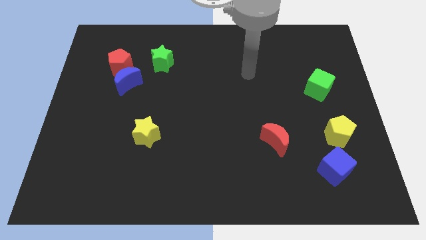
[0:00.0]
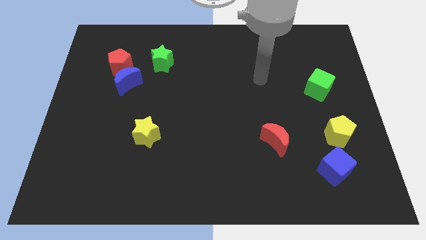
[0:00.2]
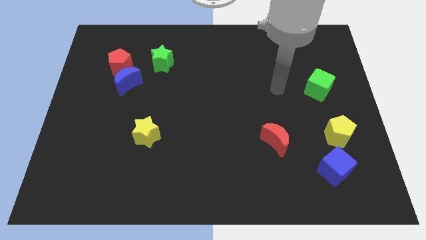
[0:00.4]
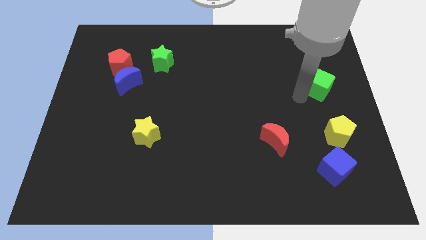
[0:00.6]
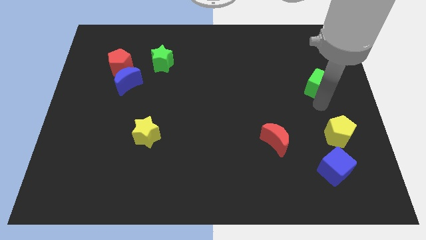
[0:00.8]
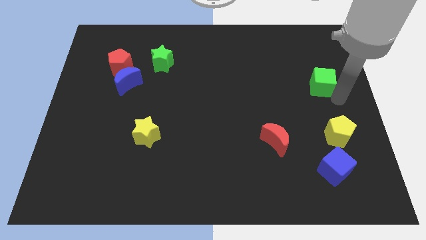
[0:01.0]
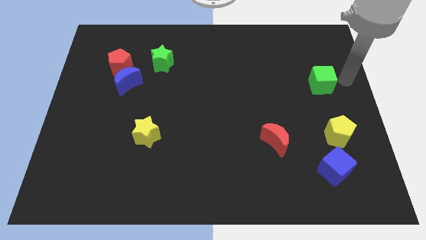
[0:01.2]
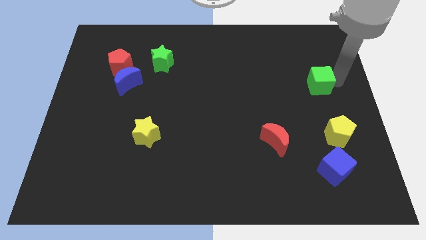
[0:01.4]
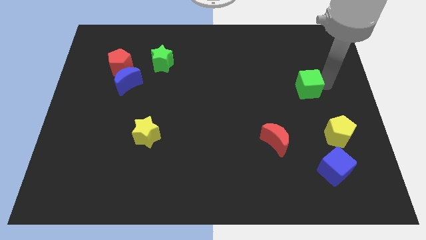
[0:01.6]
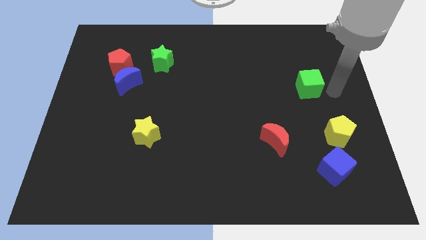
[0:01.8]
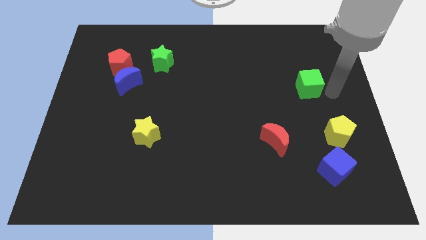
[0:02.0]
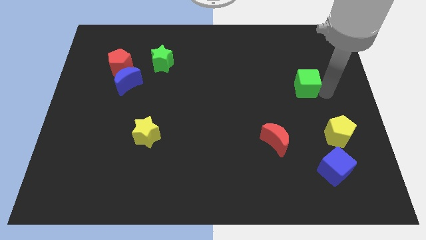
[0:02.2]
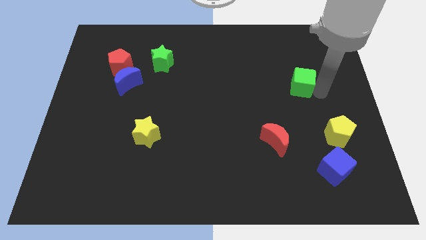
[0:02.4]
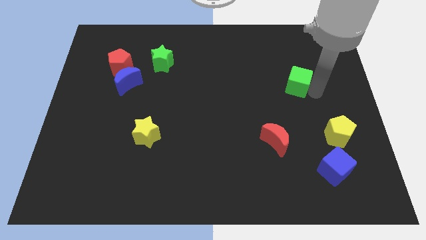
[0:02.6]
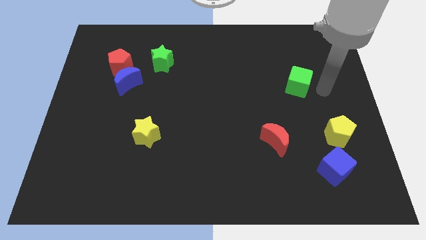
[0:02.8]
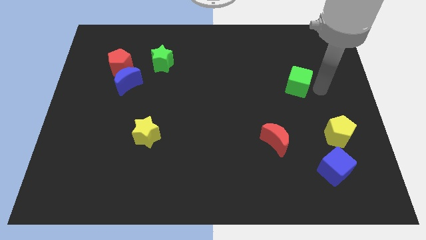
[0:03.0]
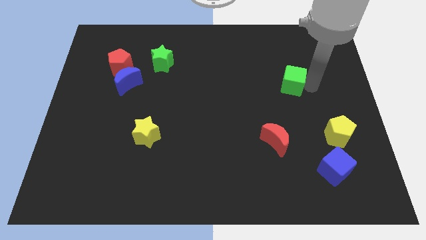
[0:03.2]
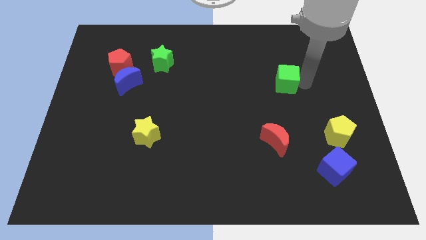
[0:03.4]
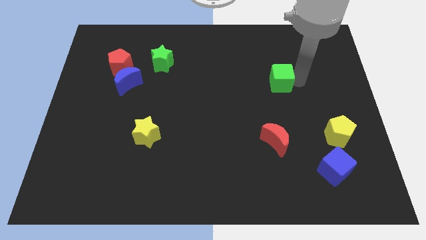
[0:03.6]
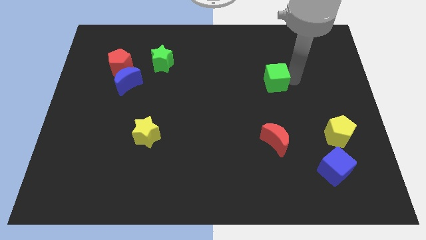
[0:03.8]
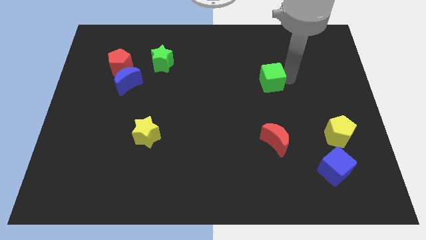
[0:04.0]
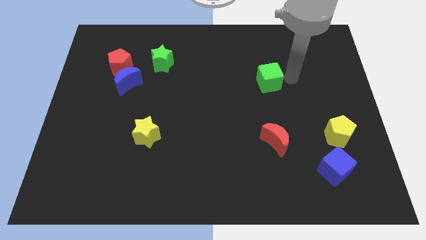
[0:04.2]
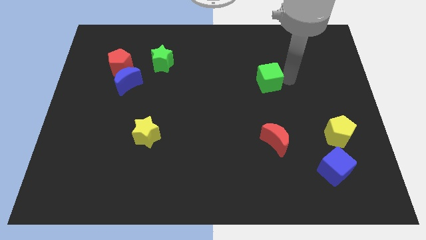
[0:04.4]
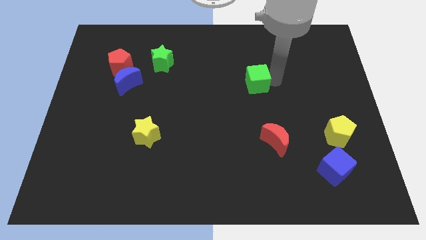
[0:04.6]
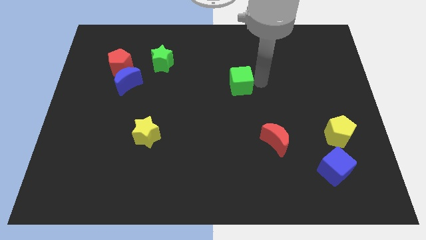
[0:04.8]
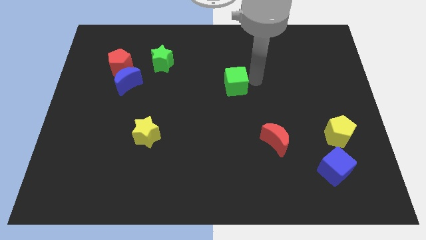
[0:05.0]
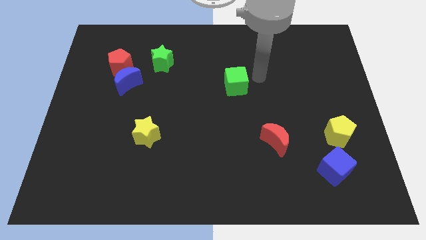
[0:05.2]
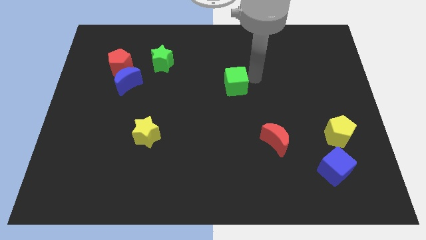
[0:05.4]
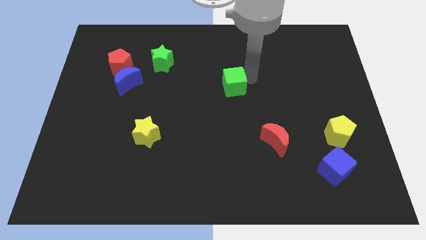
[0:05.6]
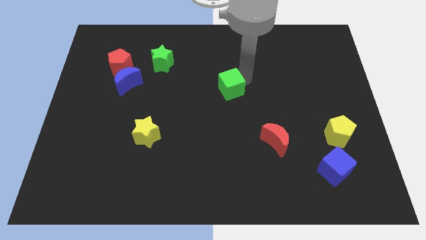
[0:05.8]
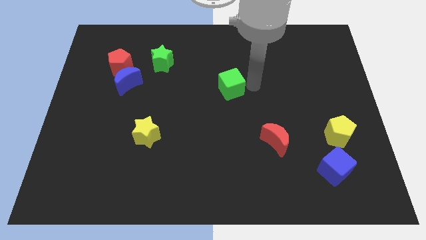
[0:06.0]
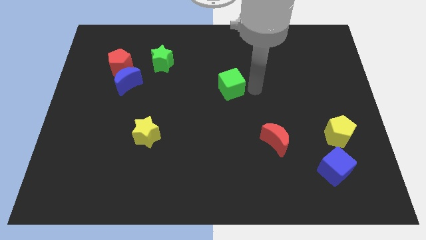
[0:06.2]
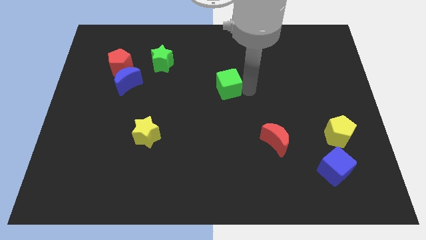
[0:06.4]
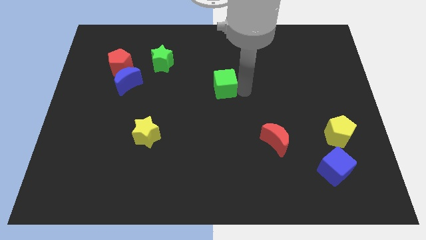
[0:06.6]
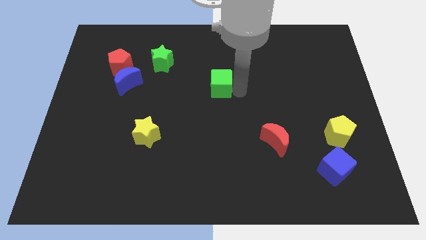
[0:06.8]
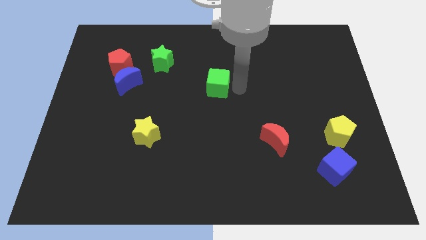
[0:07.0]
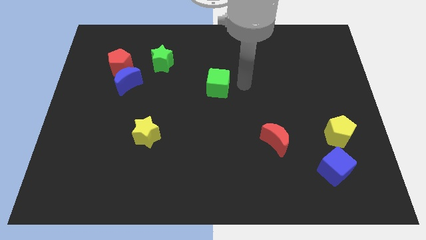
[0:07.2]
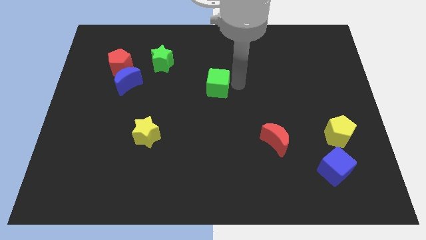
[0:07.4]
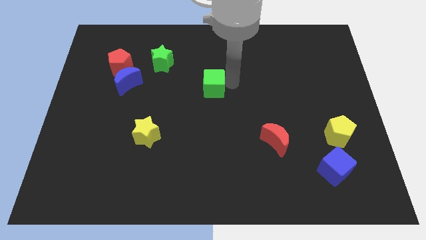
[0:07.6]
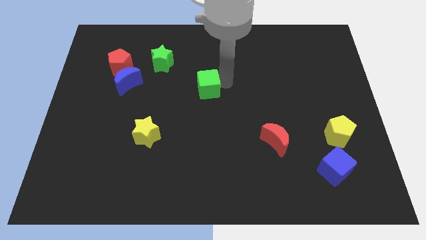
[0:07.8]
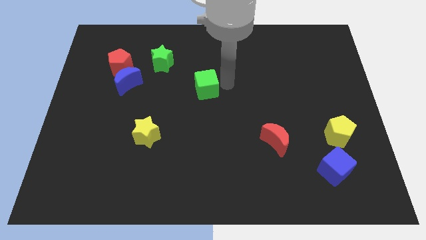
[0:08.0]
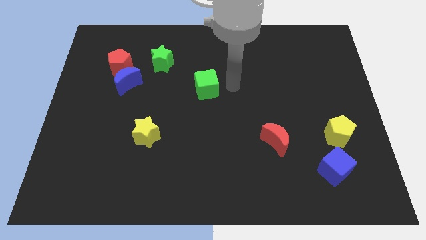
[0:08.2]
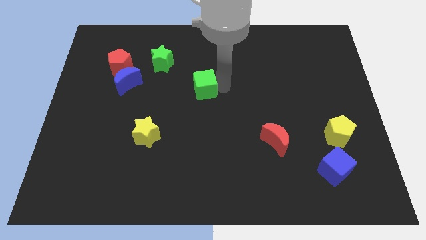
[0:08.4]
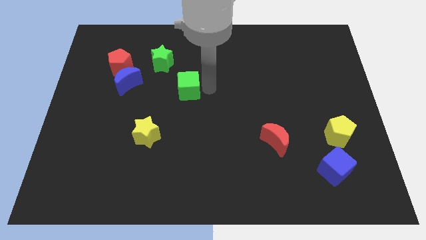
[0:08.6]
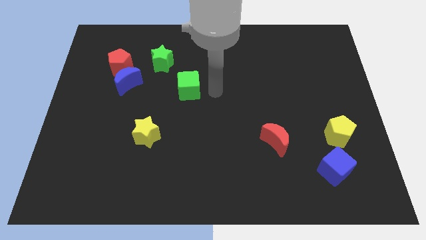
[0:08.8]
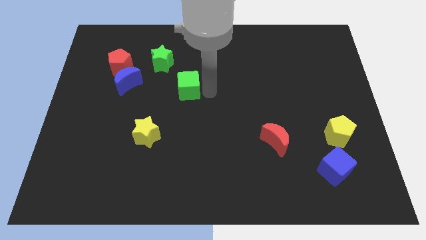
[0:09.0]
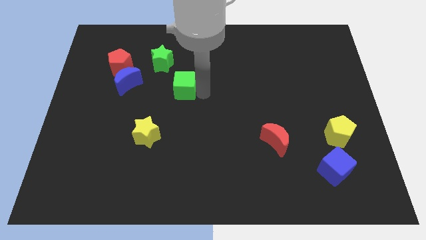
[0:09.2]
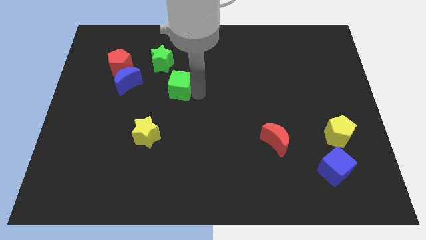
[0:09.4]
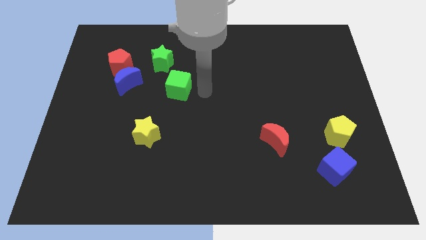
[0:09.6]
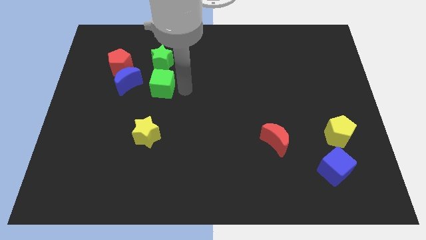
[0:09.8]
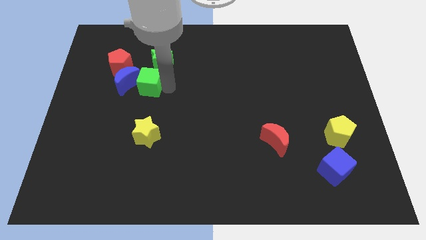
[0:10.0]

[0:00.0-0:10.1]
move the green cube towards the blue moon

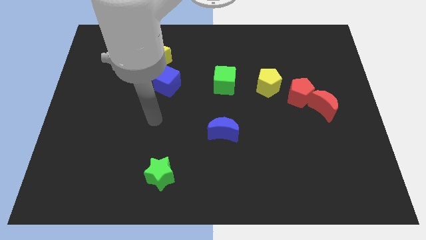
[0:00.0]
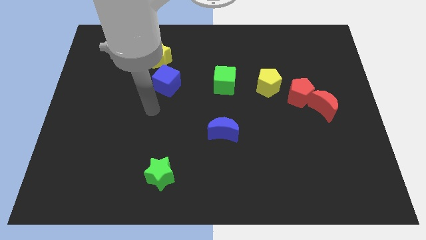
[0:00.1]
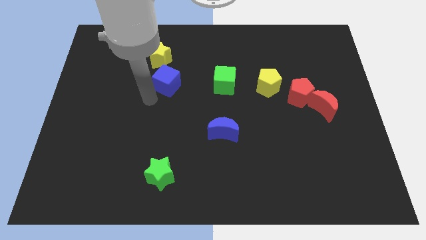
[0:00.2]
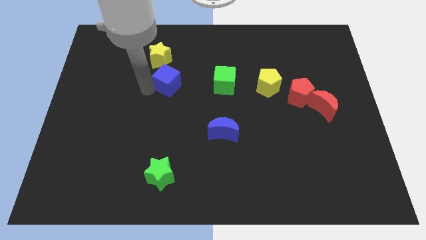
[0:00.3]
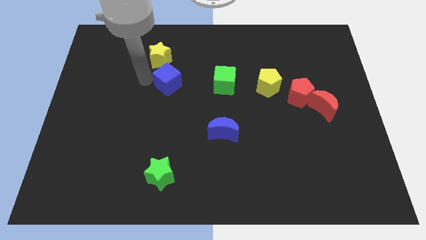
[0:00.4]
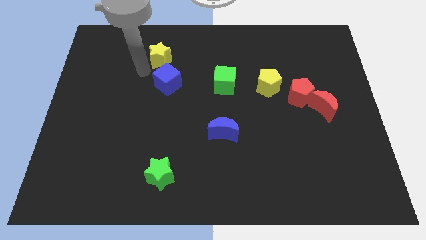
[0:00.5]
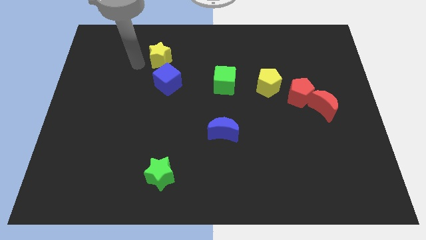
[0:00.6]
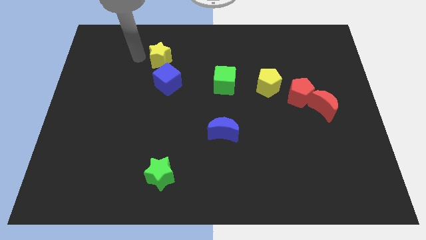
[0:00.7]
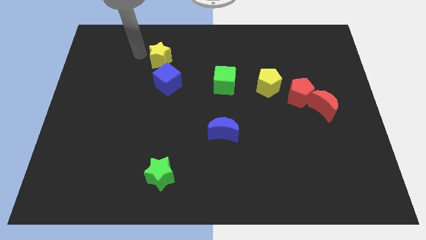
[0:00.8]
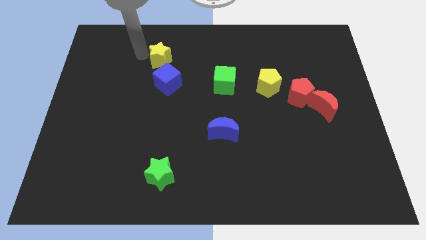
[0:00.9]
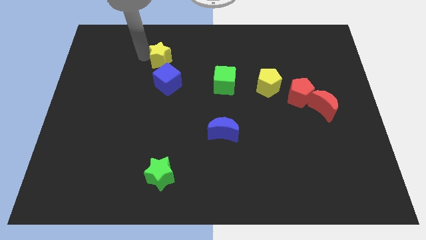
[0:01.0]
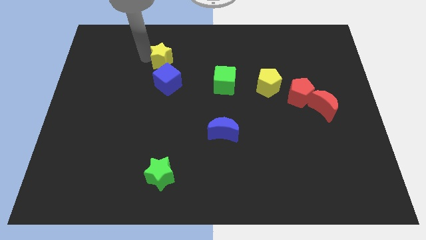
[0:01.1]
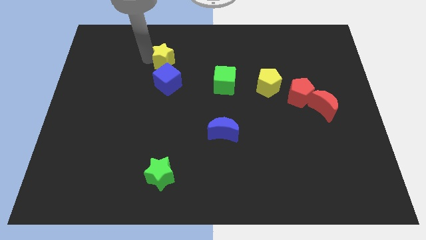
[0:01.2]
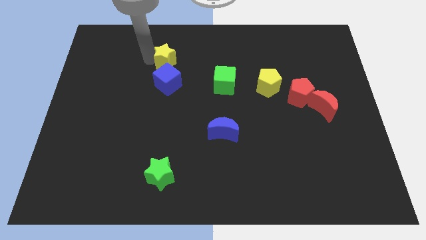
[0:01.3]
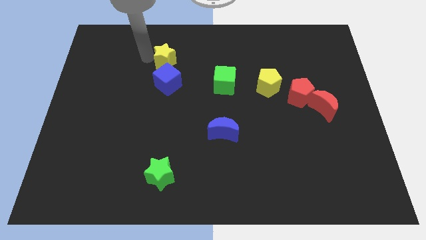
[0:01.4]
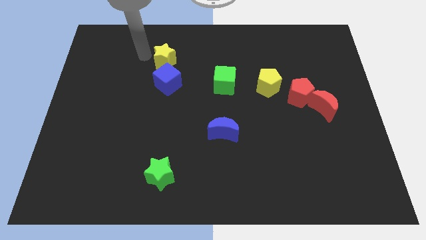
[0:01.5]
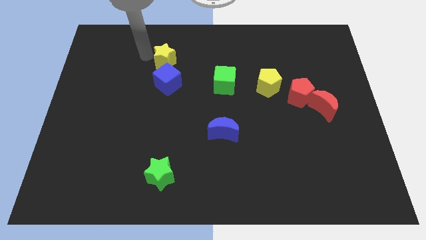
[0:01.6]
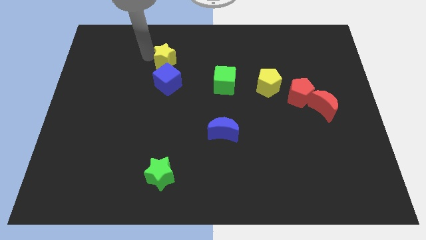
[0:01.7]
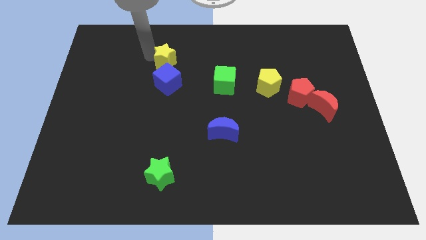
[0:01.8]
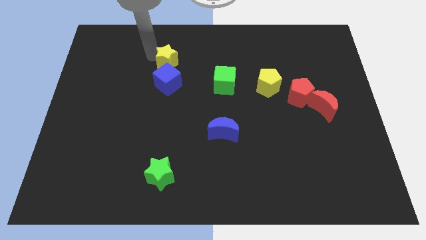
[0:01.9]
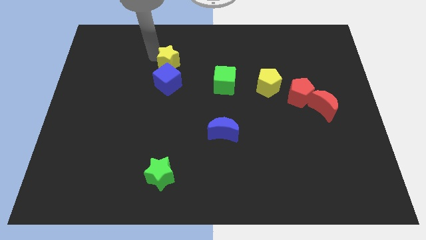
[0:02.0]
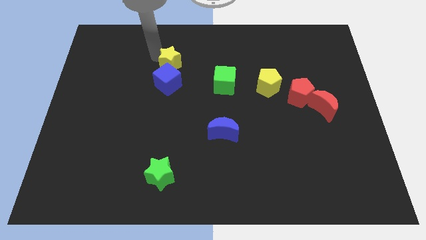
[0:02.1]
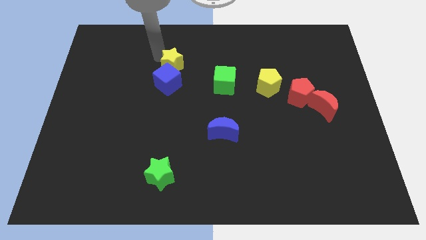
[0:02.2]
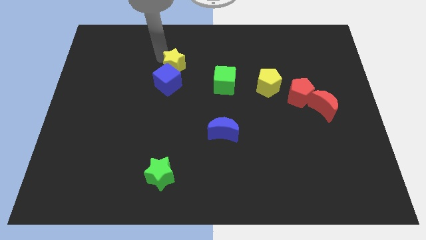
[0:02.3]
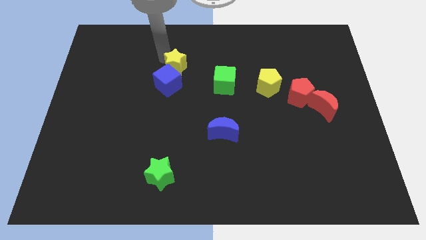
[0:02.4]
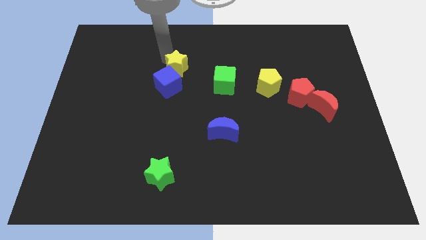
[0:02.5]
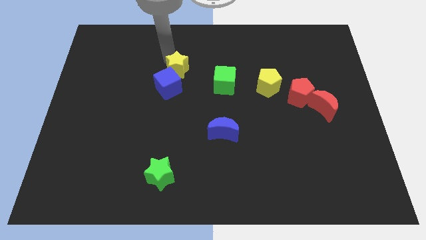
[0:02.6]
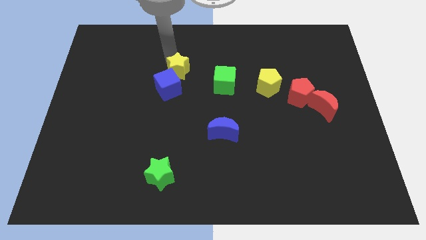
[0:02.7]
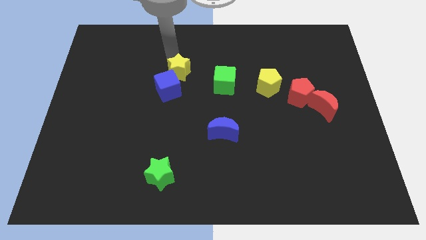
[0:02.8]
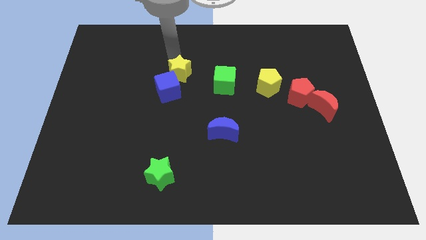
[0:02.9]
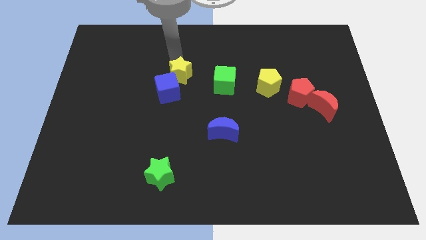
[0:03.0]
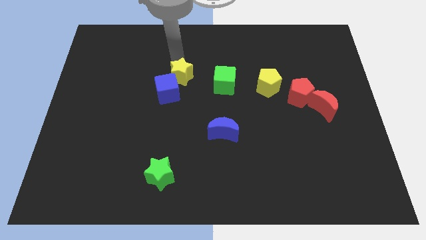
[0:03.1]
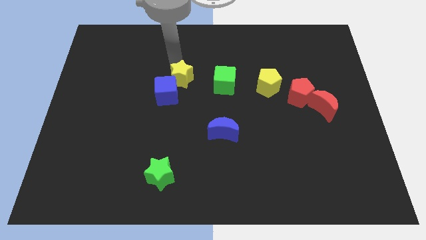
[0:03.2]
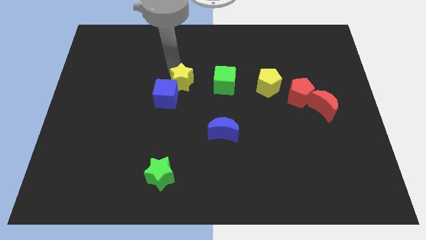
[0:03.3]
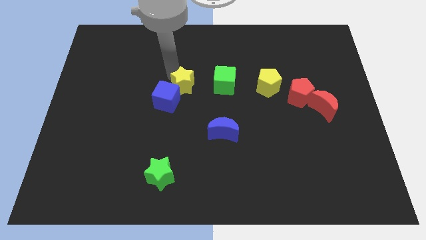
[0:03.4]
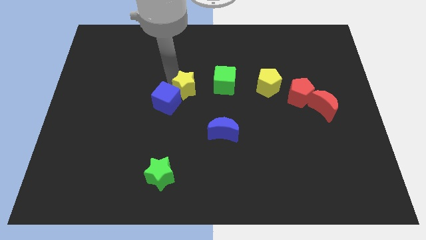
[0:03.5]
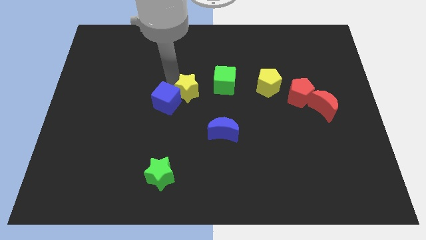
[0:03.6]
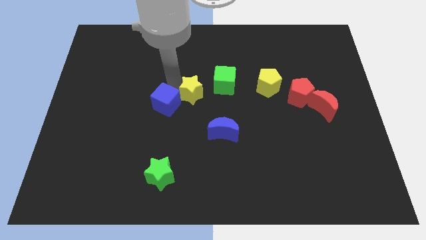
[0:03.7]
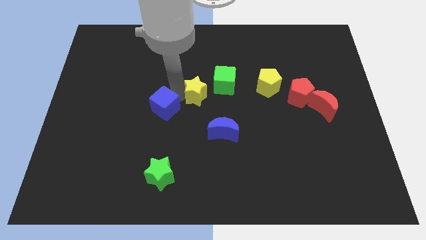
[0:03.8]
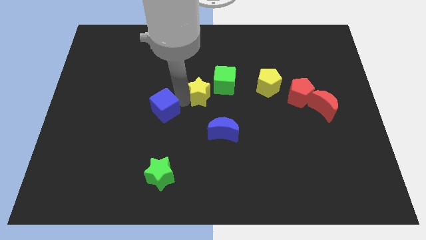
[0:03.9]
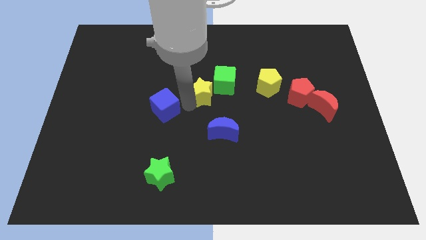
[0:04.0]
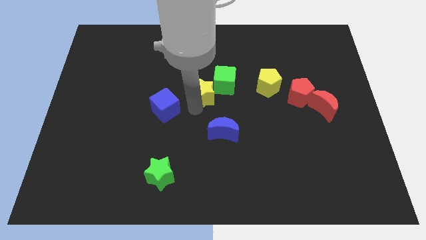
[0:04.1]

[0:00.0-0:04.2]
slide the yellow star towards the green cube
